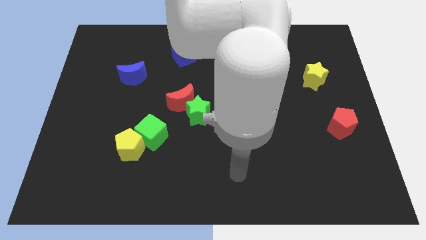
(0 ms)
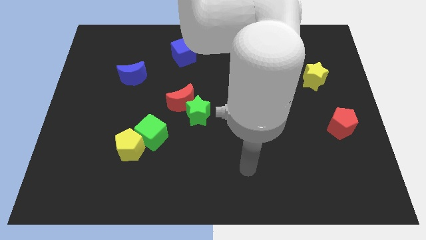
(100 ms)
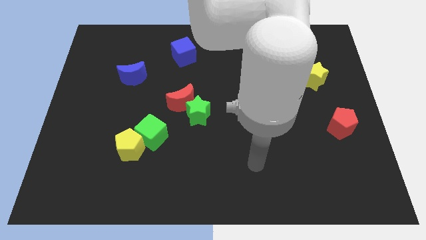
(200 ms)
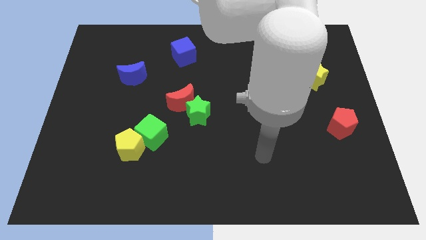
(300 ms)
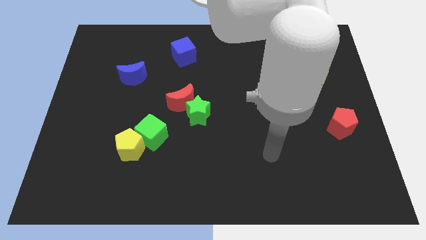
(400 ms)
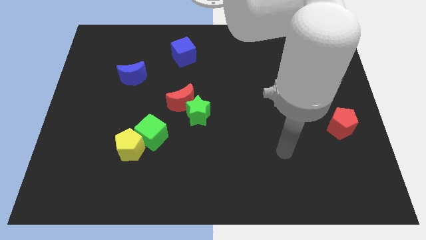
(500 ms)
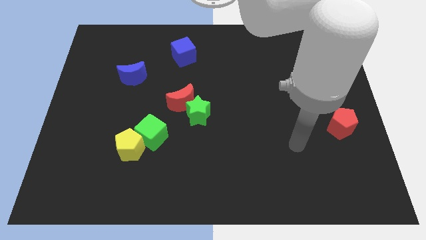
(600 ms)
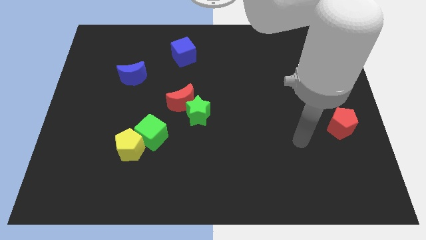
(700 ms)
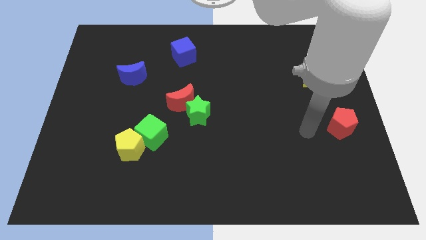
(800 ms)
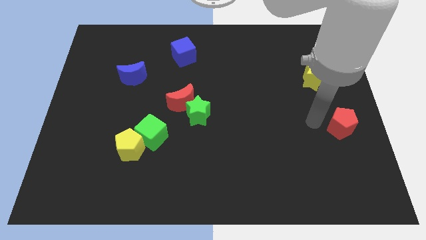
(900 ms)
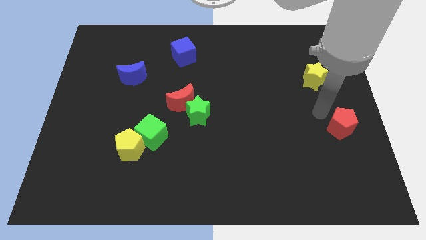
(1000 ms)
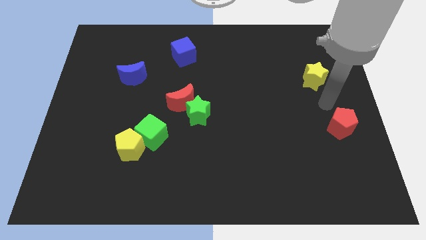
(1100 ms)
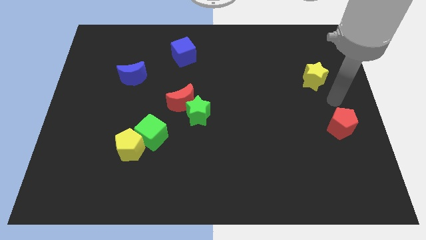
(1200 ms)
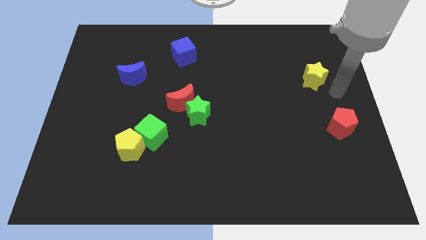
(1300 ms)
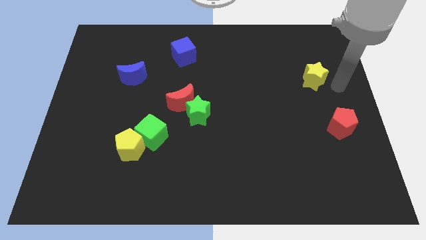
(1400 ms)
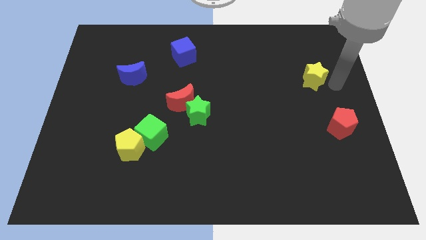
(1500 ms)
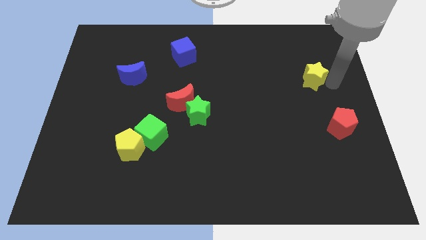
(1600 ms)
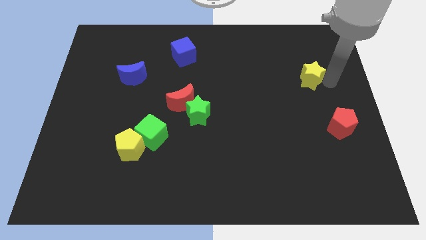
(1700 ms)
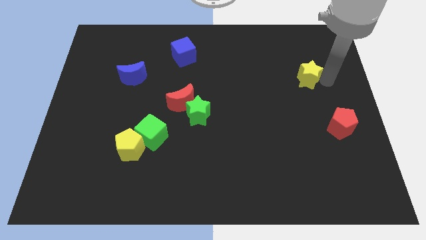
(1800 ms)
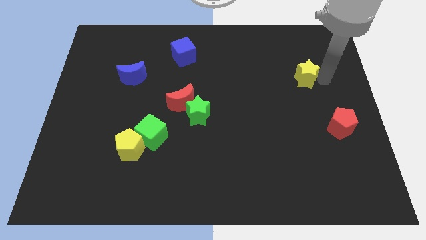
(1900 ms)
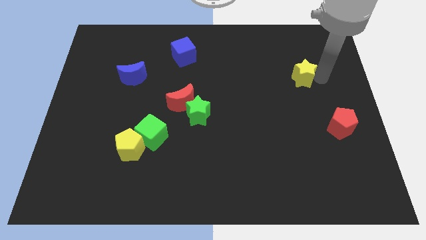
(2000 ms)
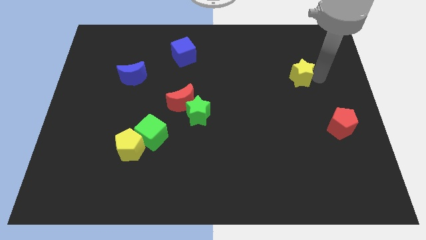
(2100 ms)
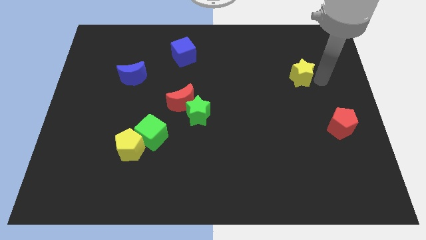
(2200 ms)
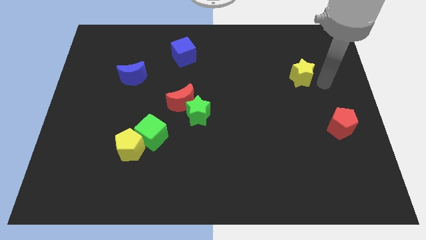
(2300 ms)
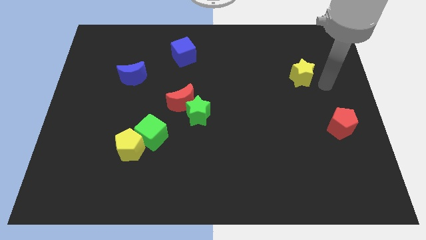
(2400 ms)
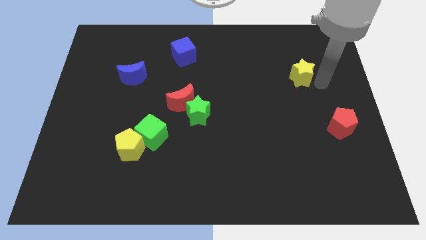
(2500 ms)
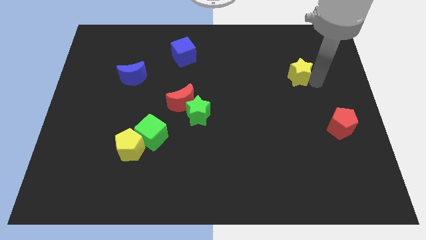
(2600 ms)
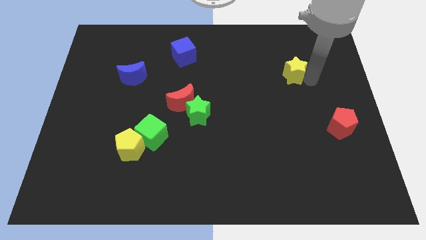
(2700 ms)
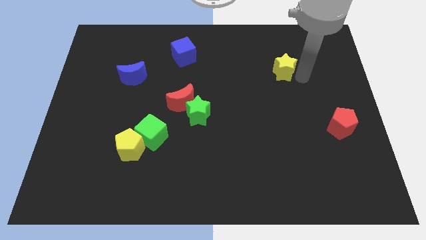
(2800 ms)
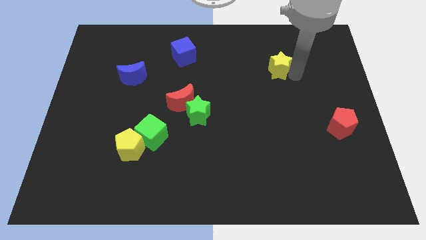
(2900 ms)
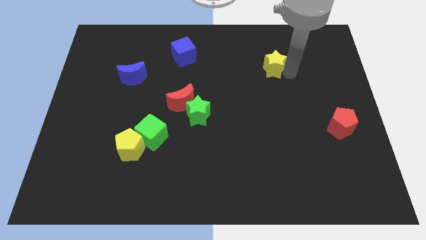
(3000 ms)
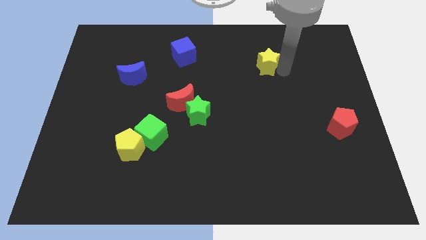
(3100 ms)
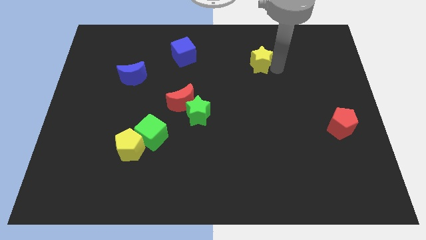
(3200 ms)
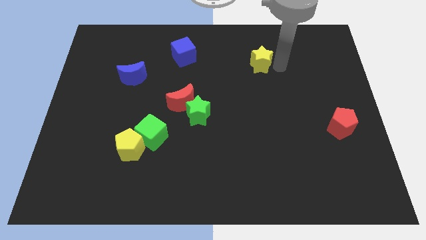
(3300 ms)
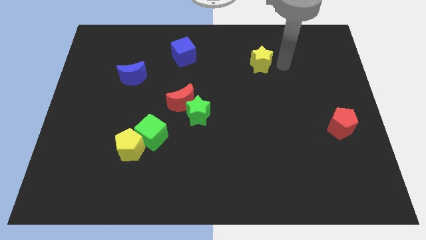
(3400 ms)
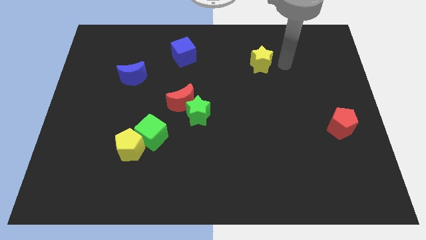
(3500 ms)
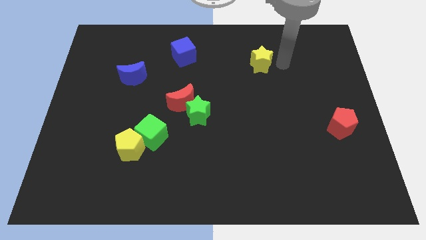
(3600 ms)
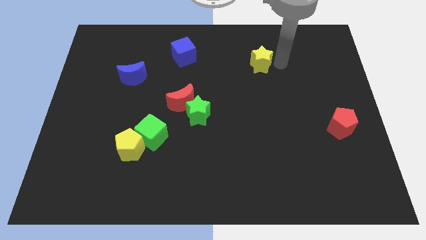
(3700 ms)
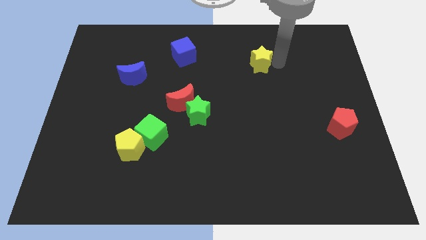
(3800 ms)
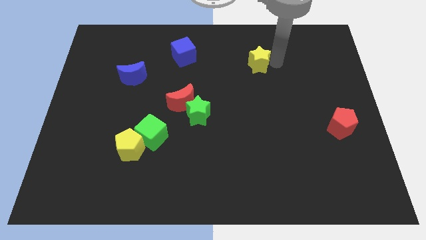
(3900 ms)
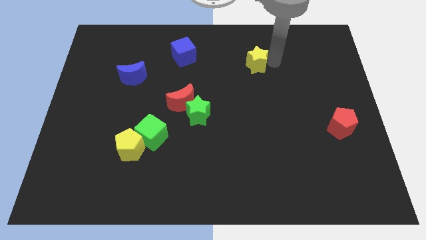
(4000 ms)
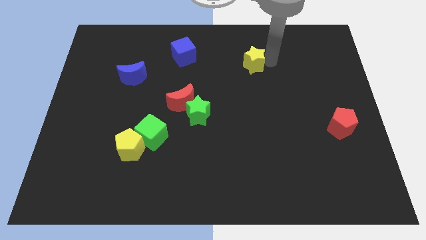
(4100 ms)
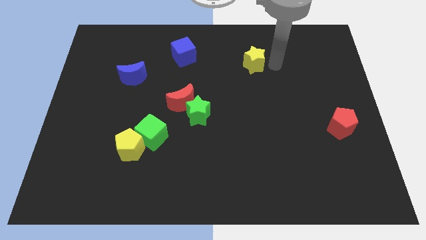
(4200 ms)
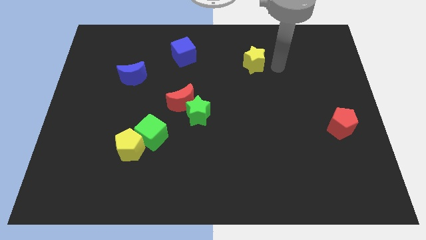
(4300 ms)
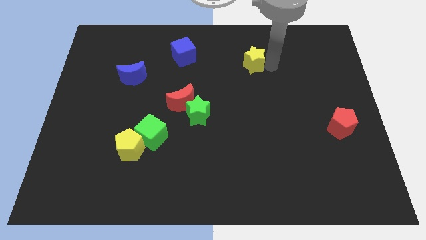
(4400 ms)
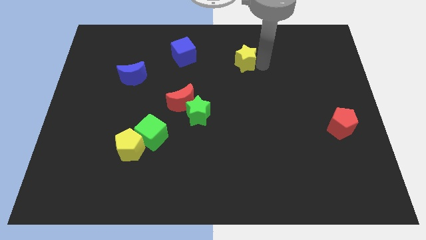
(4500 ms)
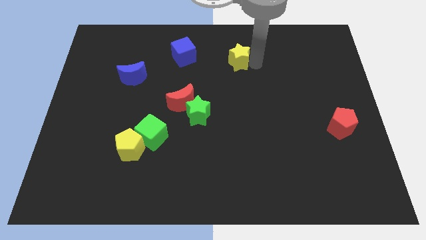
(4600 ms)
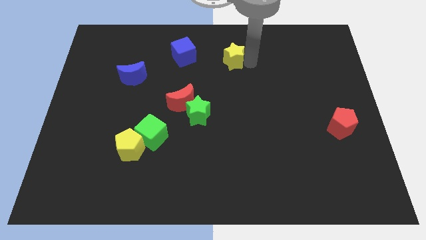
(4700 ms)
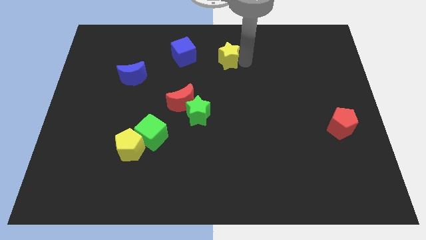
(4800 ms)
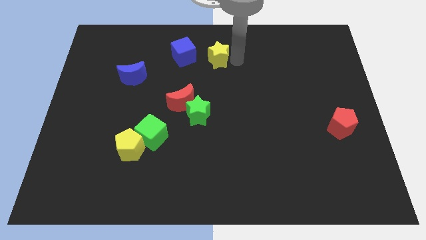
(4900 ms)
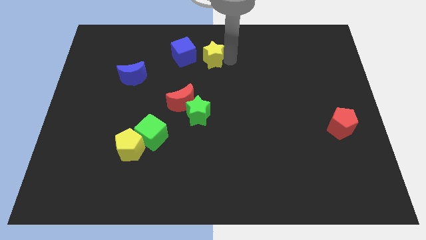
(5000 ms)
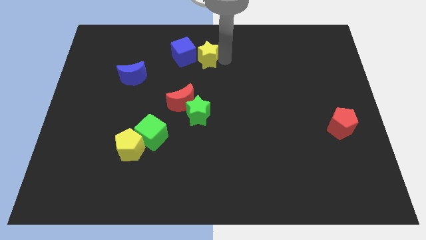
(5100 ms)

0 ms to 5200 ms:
move the yellow star to the blue cube

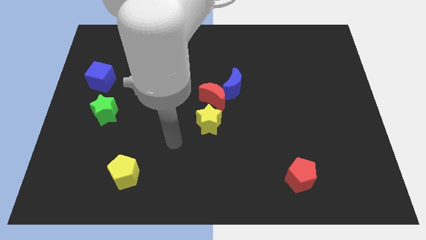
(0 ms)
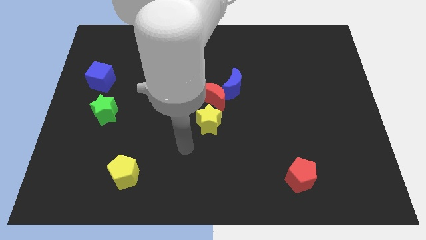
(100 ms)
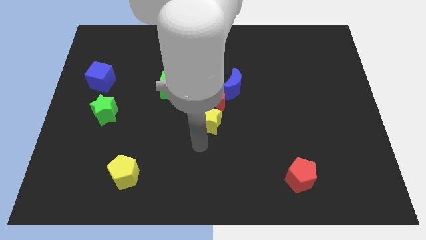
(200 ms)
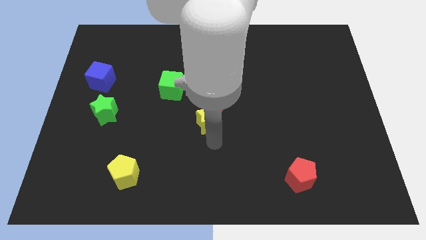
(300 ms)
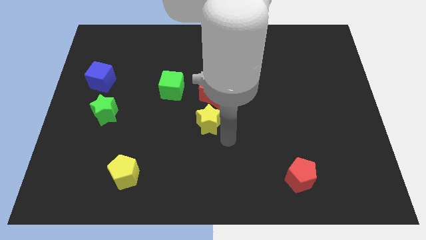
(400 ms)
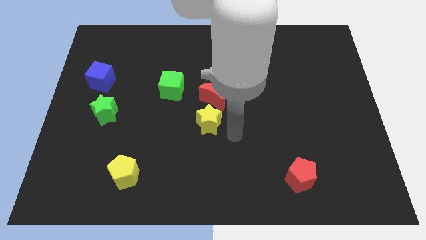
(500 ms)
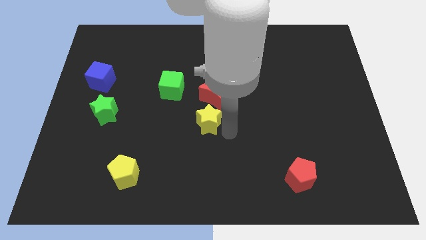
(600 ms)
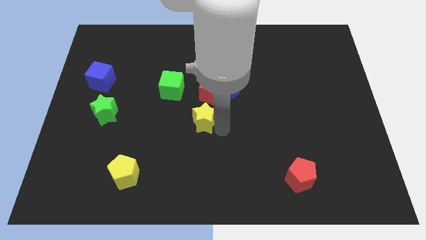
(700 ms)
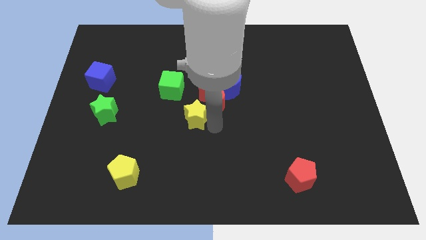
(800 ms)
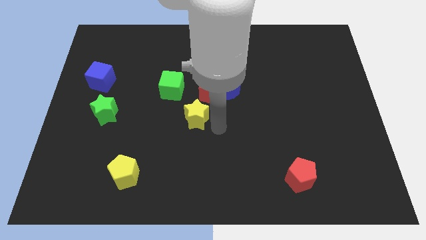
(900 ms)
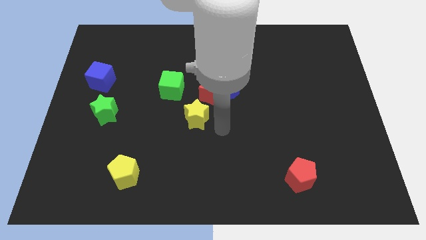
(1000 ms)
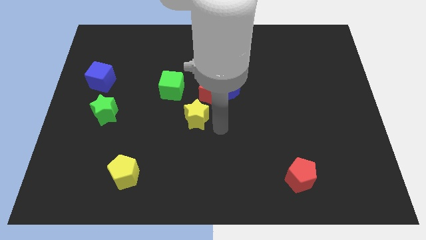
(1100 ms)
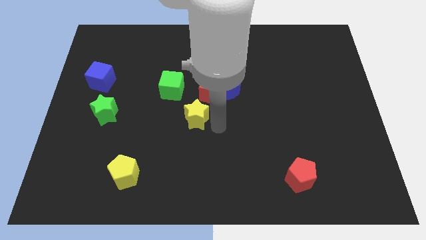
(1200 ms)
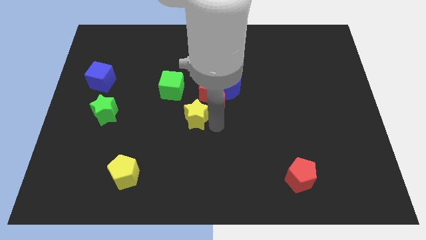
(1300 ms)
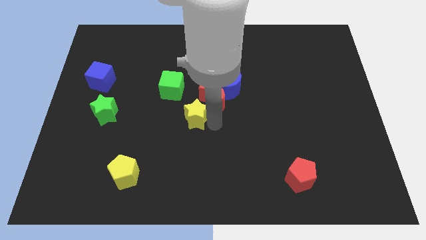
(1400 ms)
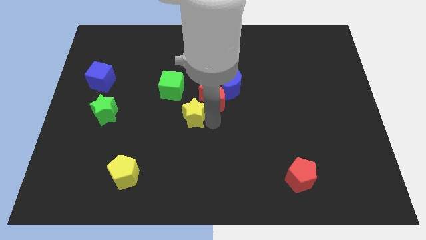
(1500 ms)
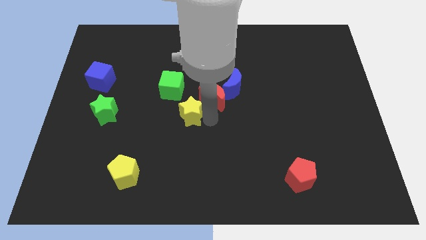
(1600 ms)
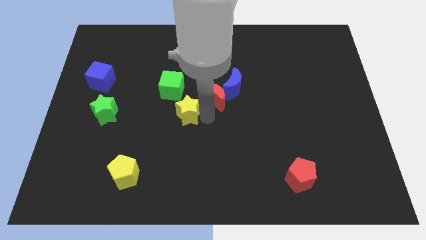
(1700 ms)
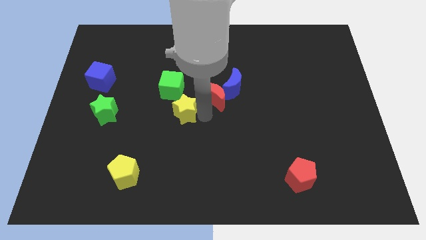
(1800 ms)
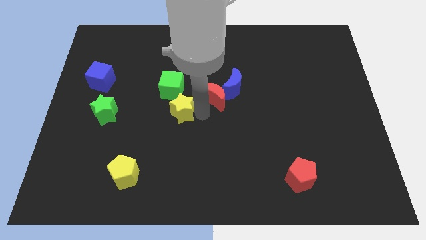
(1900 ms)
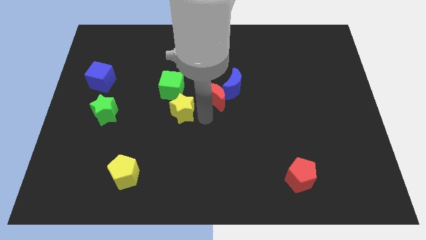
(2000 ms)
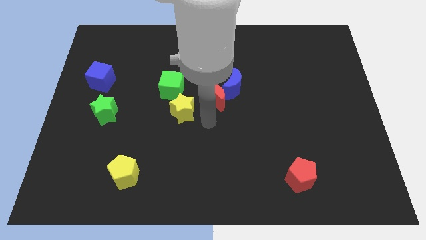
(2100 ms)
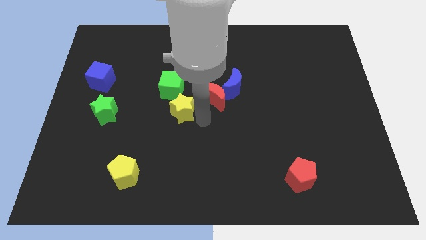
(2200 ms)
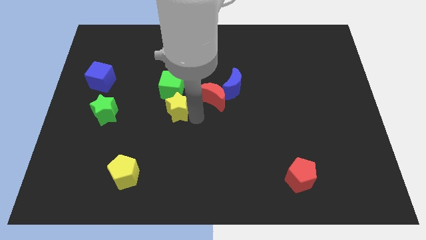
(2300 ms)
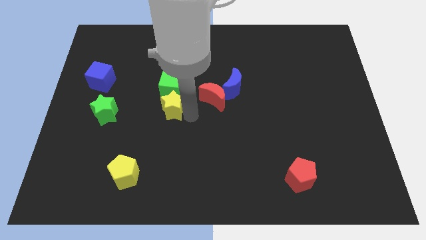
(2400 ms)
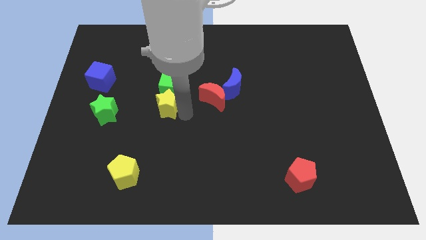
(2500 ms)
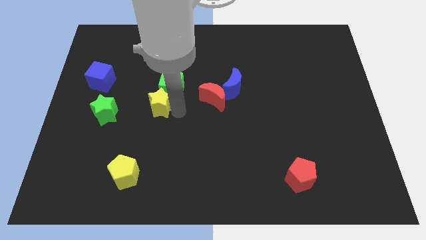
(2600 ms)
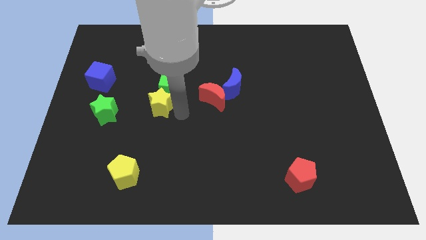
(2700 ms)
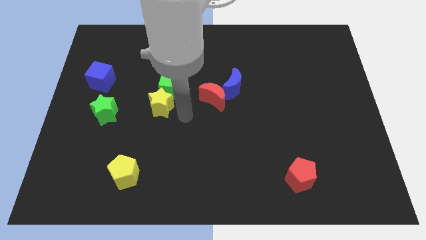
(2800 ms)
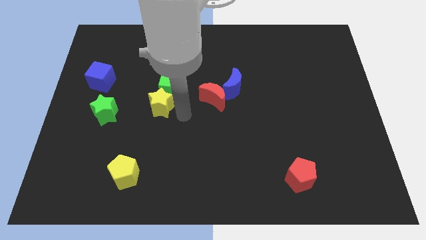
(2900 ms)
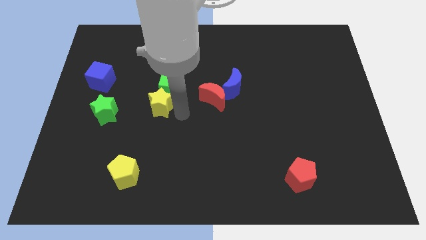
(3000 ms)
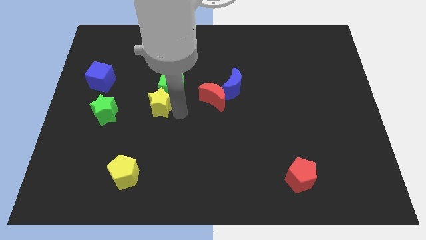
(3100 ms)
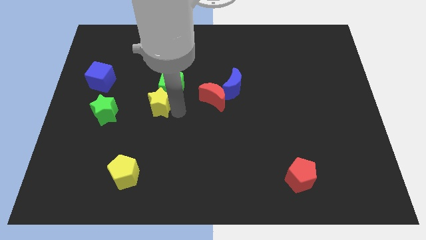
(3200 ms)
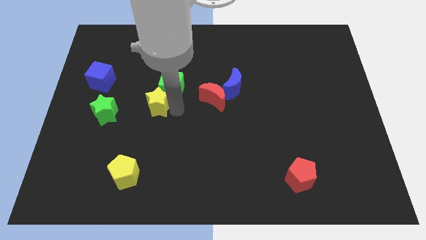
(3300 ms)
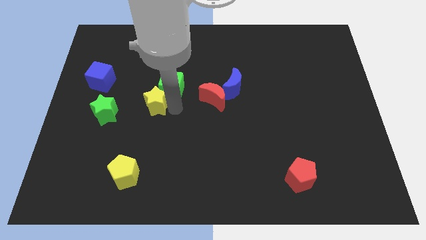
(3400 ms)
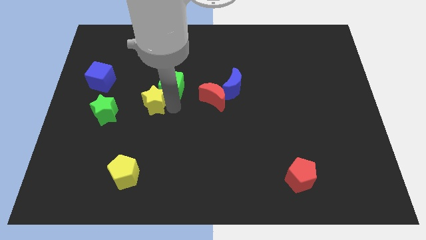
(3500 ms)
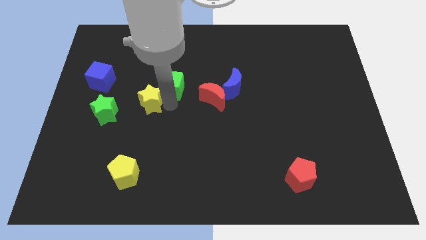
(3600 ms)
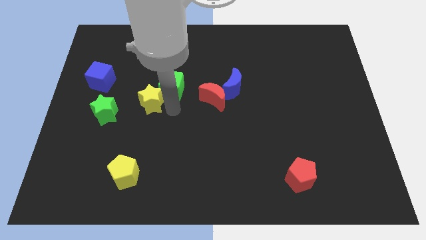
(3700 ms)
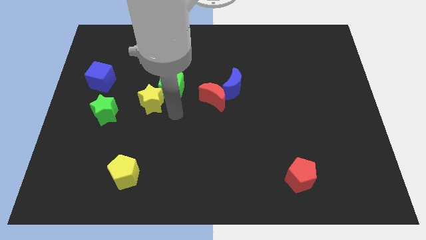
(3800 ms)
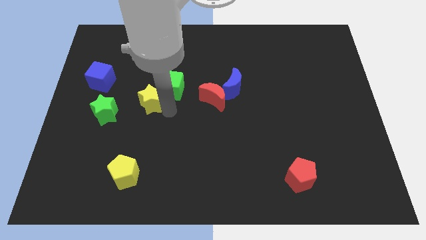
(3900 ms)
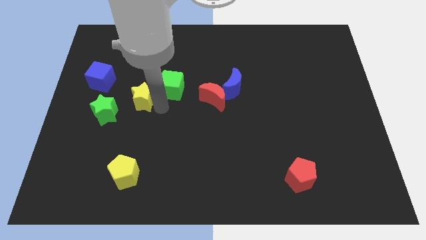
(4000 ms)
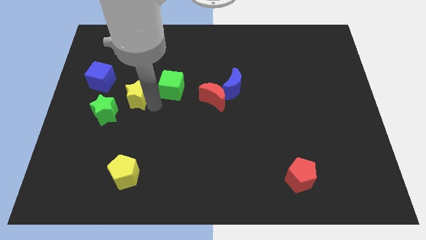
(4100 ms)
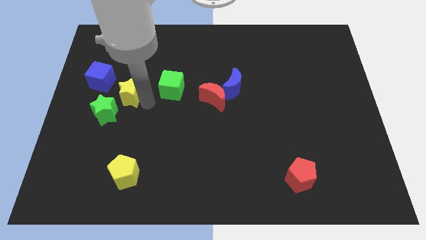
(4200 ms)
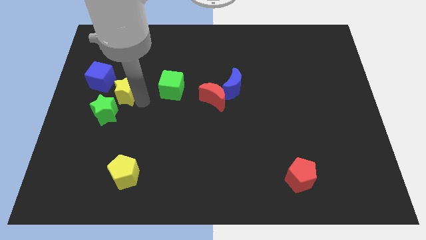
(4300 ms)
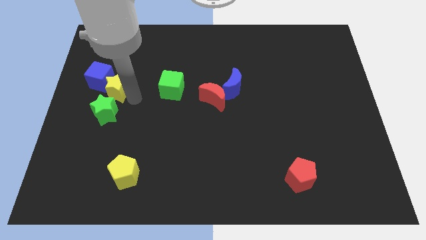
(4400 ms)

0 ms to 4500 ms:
put the yellow star close to the blue cube
